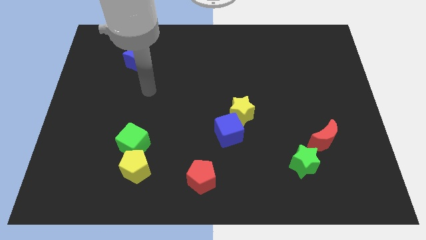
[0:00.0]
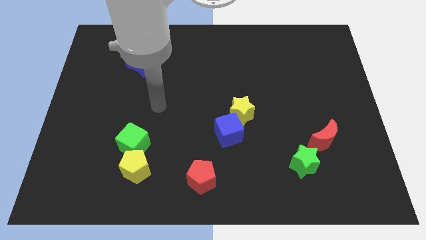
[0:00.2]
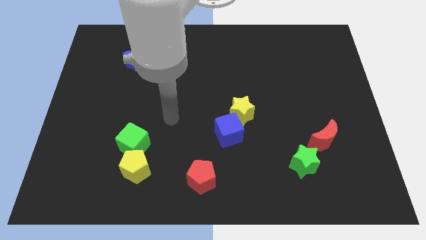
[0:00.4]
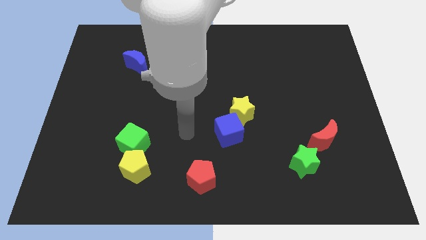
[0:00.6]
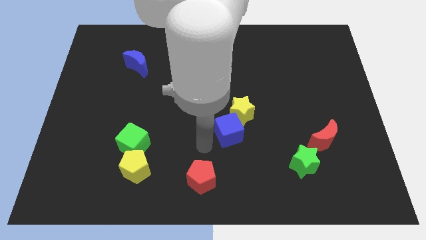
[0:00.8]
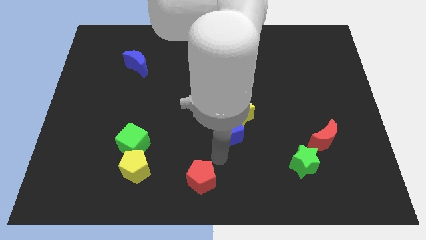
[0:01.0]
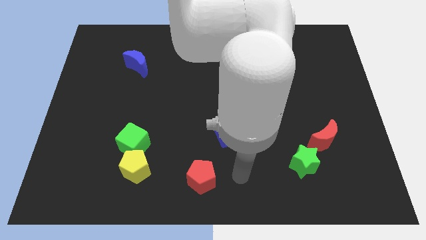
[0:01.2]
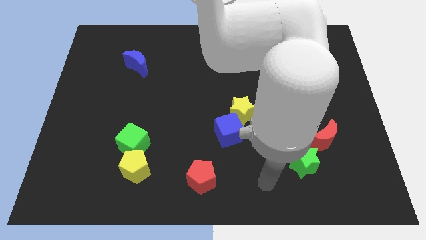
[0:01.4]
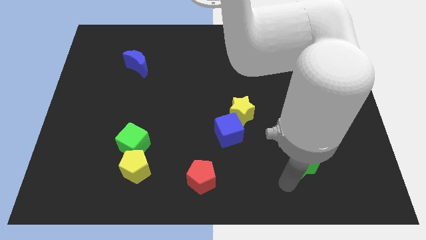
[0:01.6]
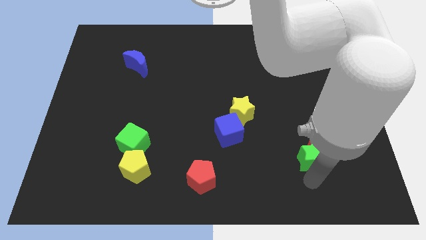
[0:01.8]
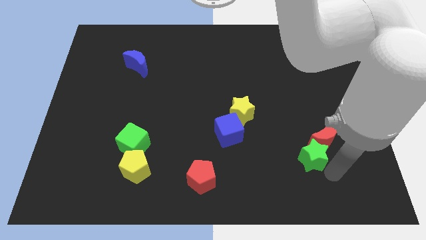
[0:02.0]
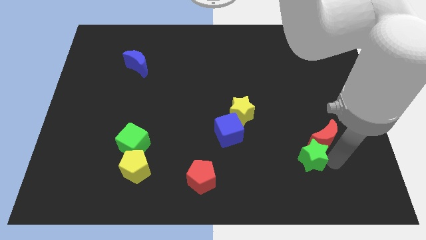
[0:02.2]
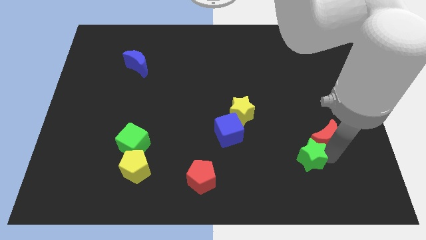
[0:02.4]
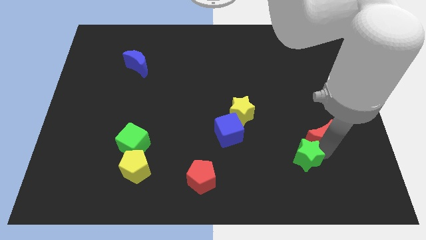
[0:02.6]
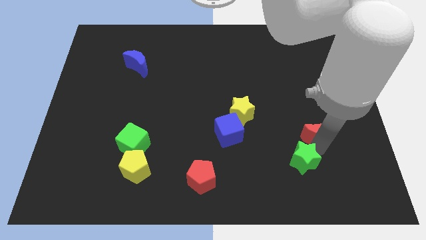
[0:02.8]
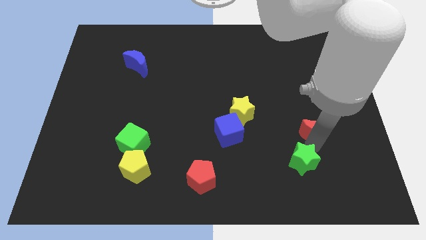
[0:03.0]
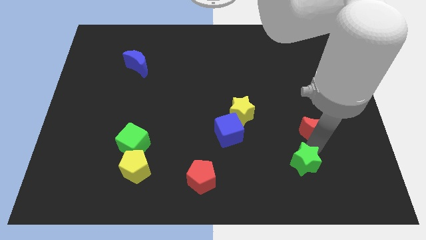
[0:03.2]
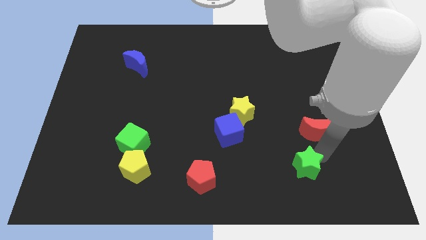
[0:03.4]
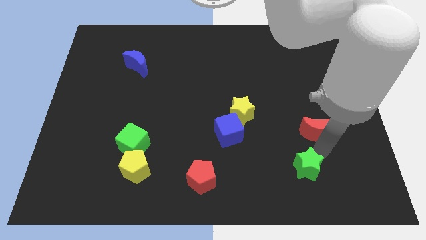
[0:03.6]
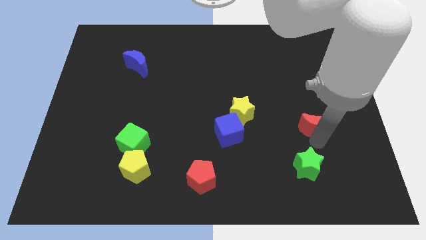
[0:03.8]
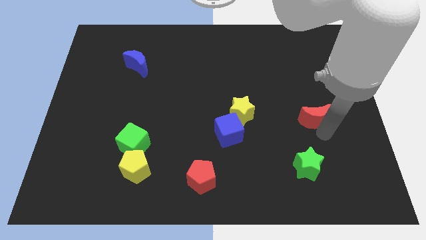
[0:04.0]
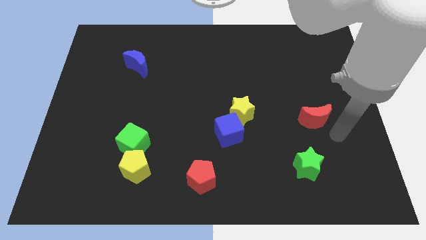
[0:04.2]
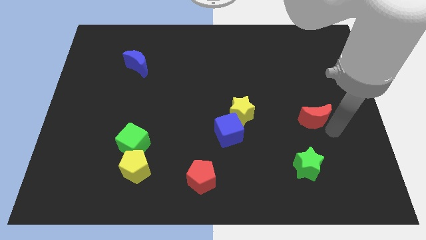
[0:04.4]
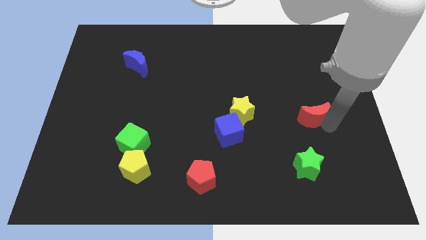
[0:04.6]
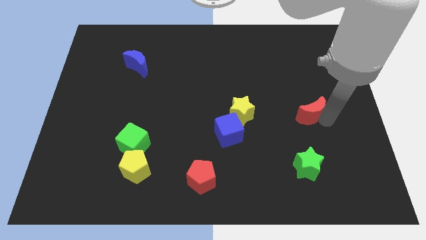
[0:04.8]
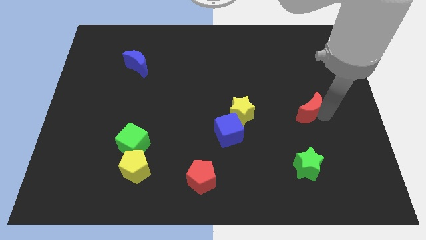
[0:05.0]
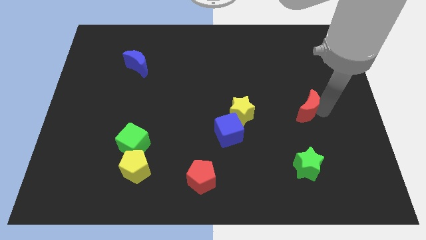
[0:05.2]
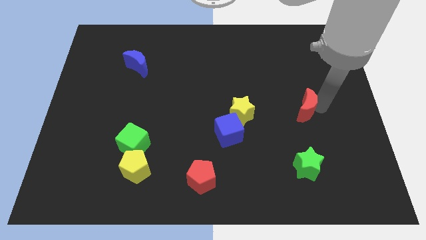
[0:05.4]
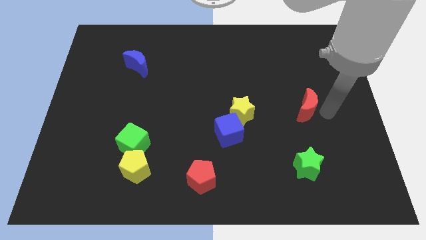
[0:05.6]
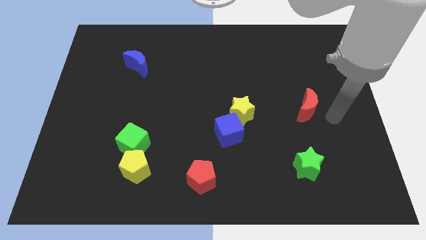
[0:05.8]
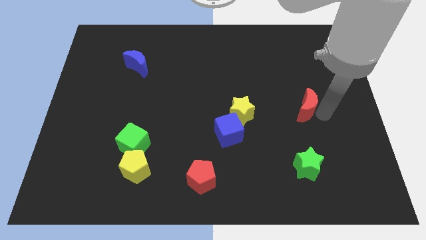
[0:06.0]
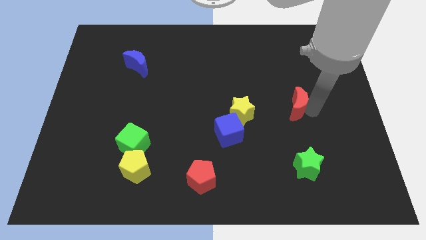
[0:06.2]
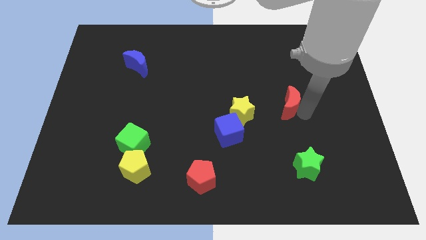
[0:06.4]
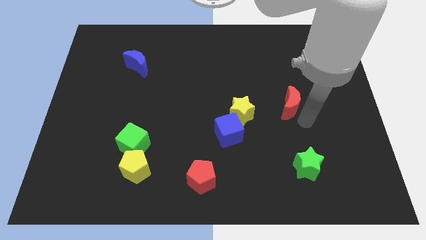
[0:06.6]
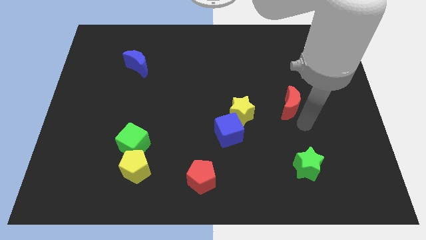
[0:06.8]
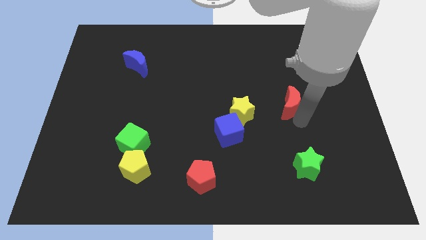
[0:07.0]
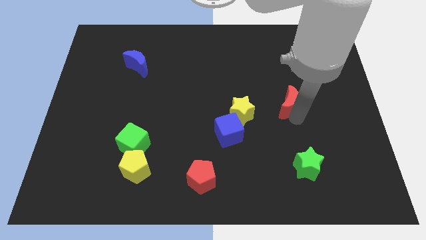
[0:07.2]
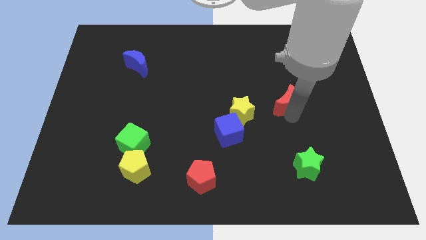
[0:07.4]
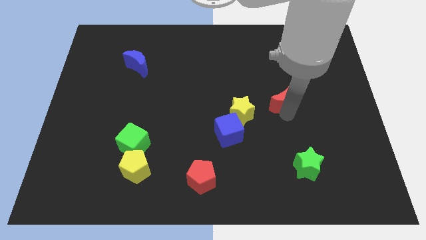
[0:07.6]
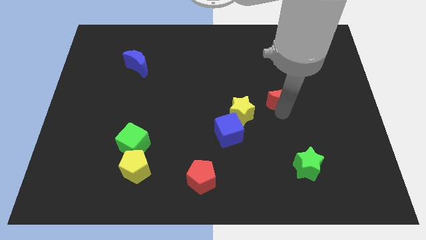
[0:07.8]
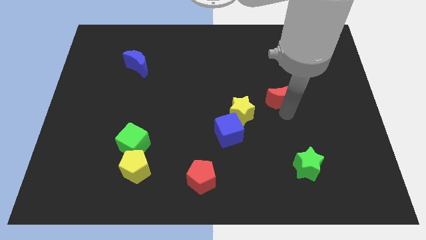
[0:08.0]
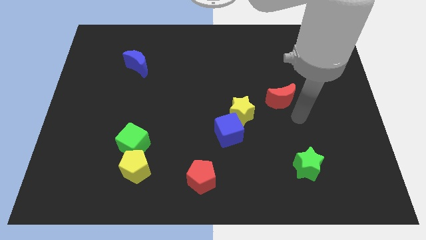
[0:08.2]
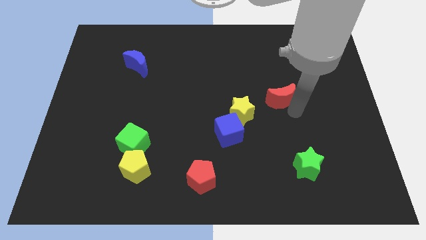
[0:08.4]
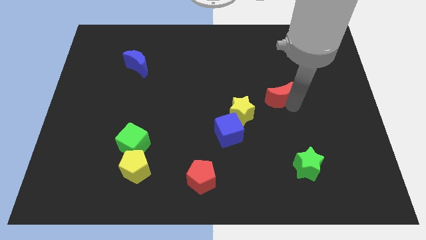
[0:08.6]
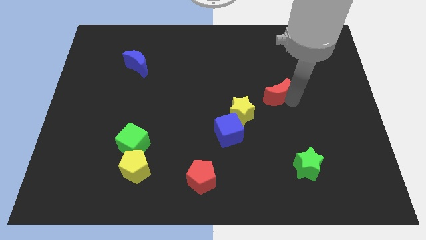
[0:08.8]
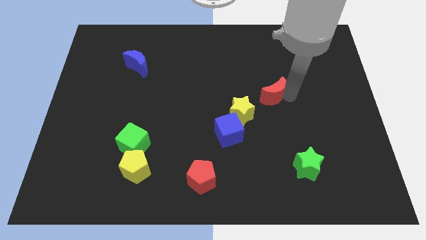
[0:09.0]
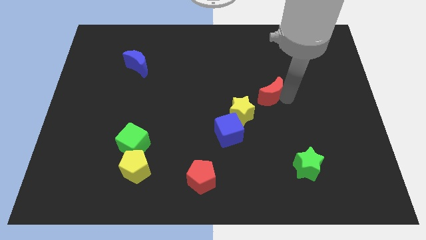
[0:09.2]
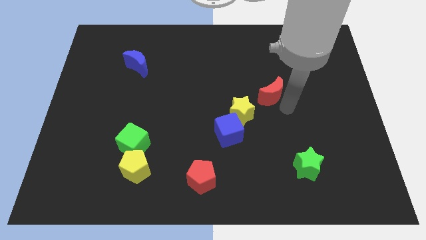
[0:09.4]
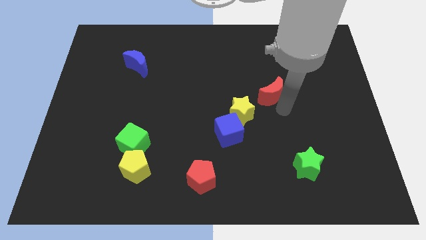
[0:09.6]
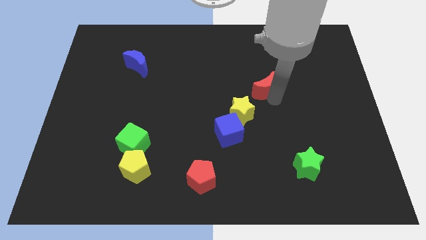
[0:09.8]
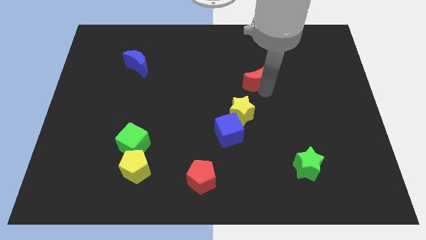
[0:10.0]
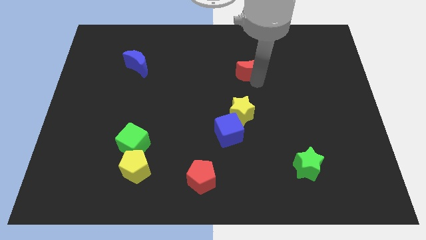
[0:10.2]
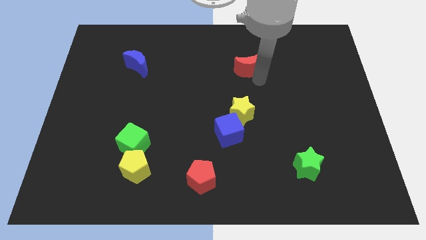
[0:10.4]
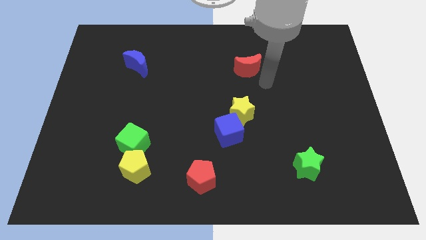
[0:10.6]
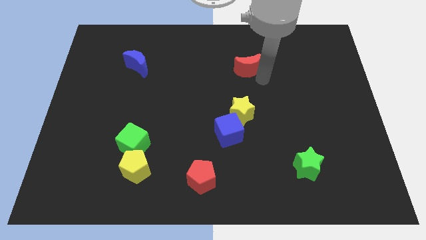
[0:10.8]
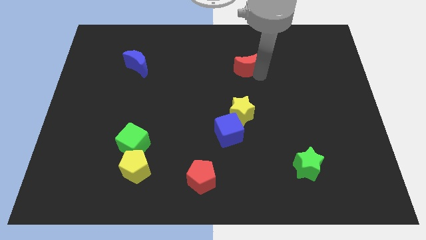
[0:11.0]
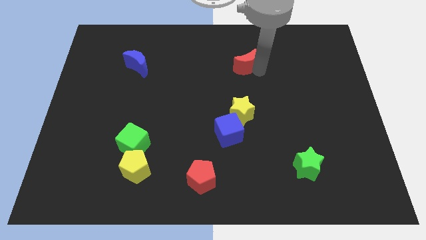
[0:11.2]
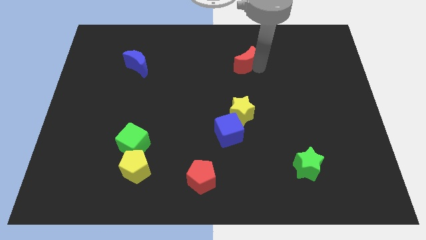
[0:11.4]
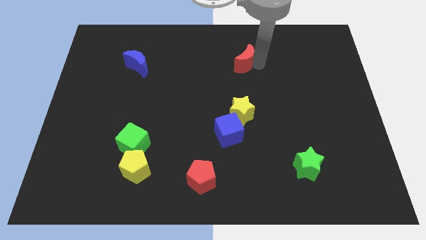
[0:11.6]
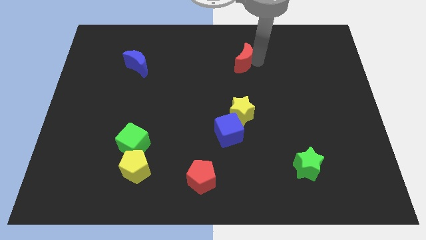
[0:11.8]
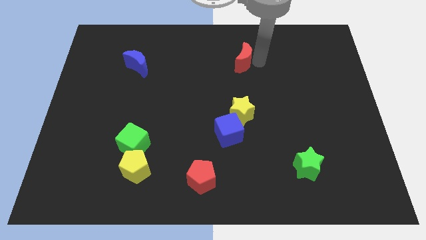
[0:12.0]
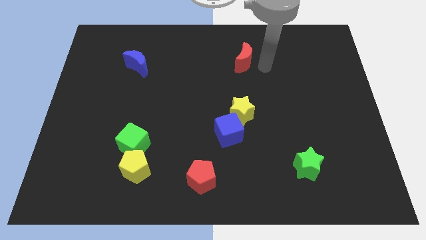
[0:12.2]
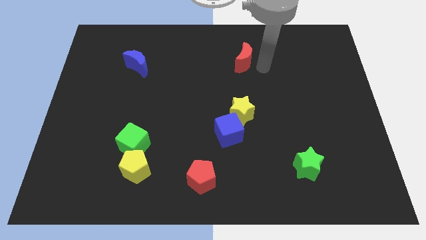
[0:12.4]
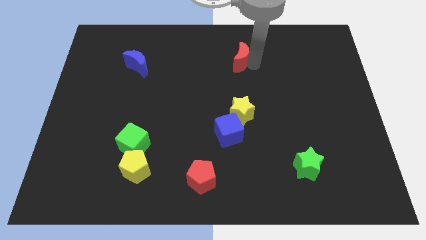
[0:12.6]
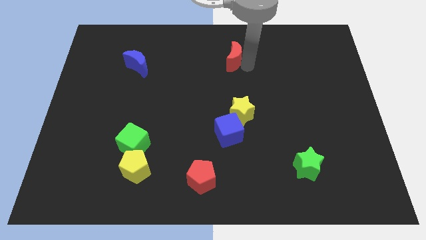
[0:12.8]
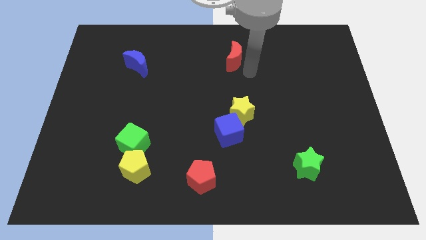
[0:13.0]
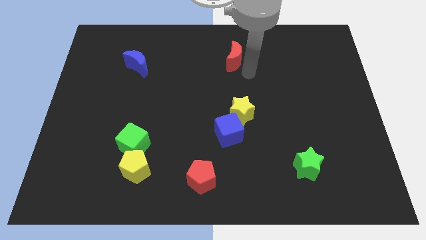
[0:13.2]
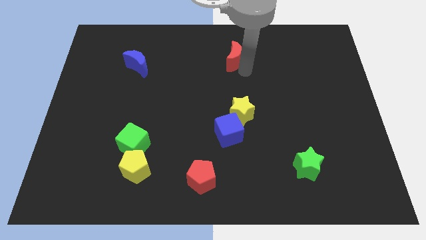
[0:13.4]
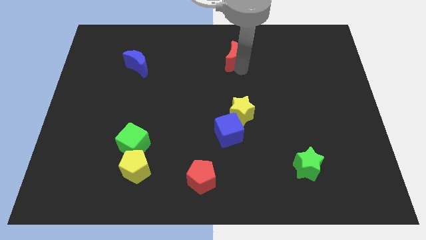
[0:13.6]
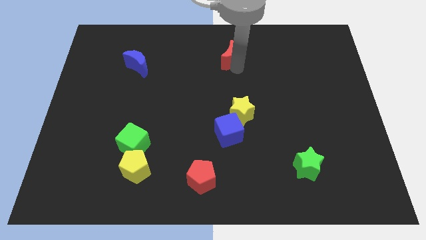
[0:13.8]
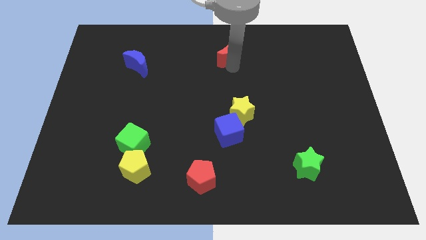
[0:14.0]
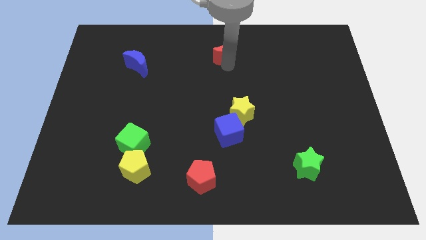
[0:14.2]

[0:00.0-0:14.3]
slide the red moon to the top side

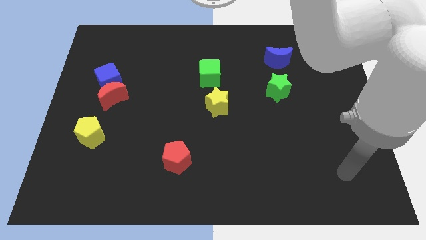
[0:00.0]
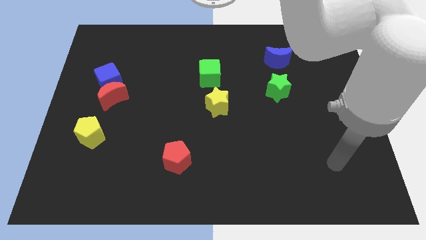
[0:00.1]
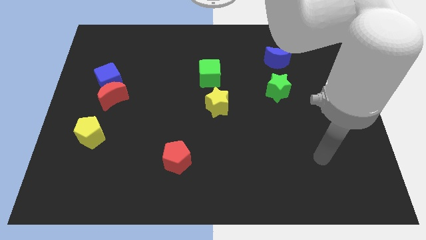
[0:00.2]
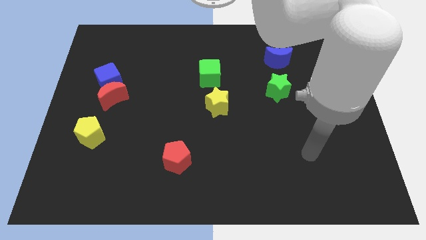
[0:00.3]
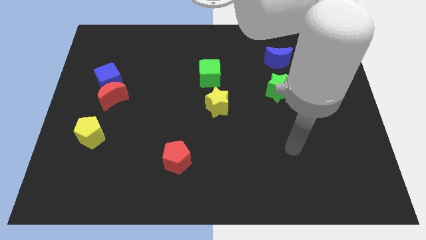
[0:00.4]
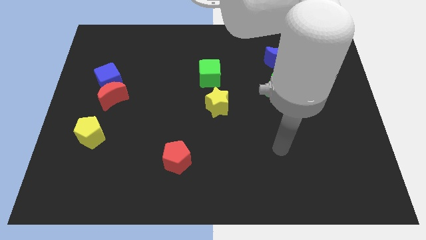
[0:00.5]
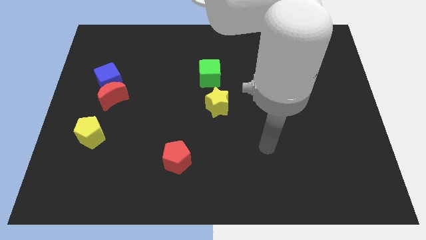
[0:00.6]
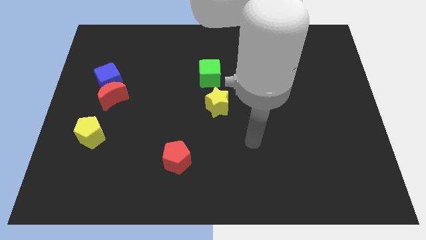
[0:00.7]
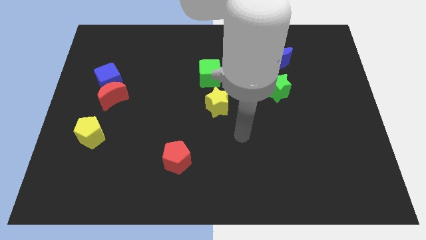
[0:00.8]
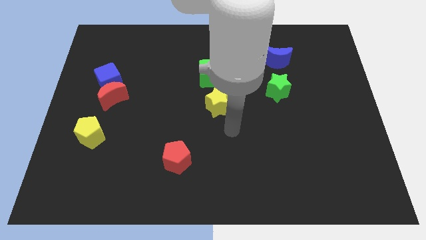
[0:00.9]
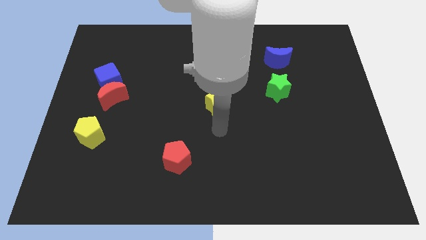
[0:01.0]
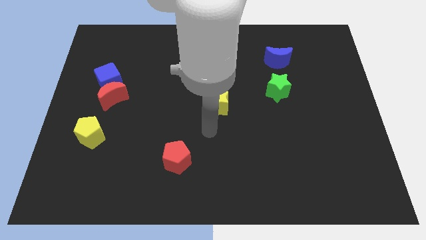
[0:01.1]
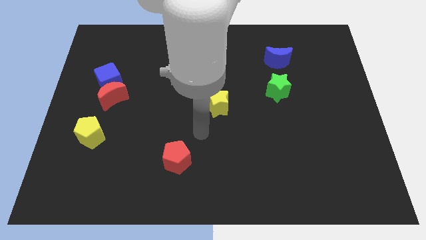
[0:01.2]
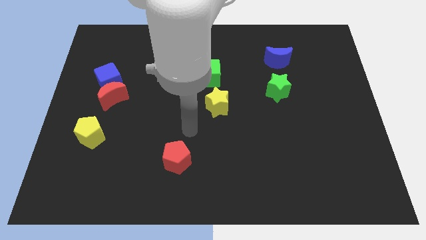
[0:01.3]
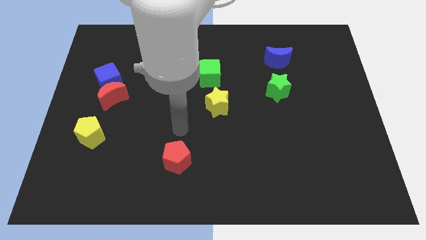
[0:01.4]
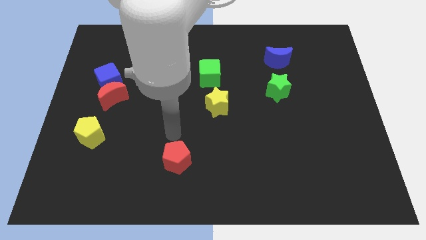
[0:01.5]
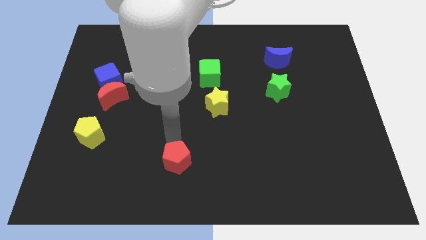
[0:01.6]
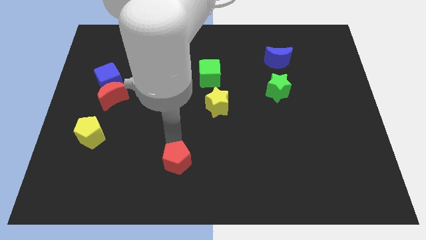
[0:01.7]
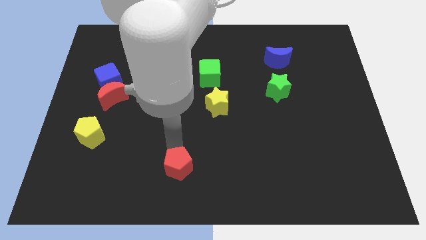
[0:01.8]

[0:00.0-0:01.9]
slide the red pentagon to the bottom
